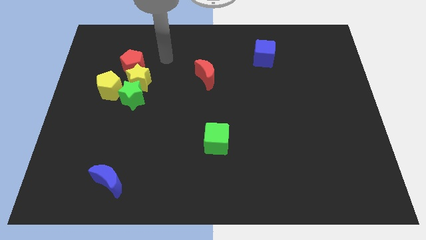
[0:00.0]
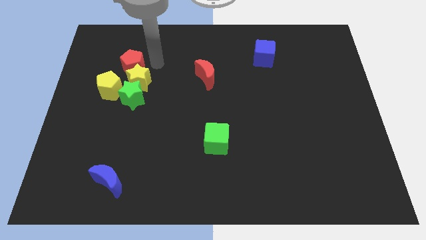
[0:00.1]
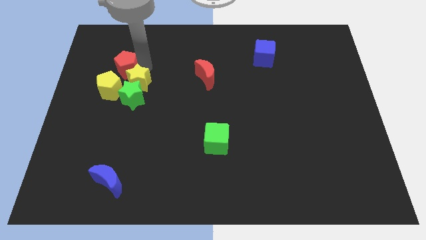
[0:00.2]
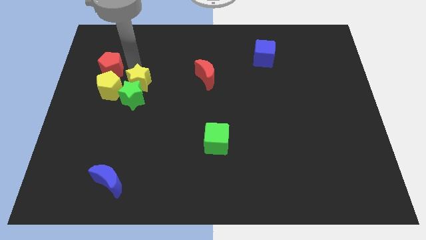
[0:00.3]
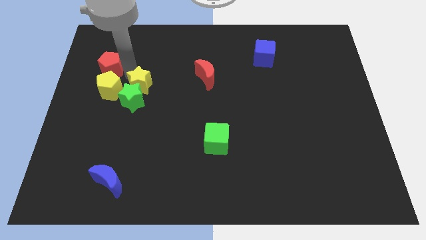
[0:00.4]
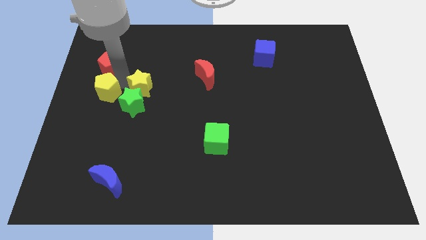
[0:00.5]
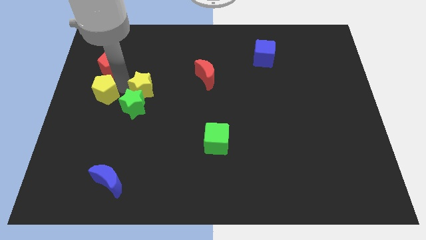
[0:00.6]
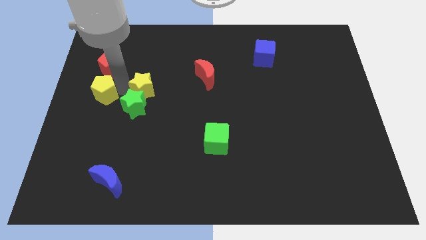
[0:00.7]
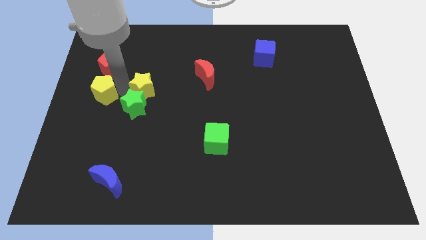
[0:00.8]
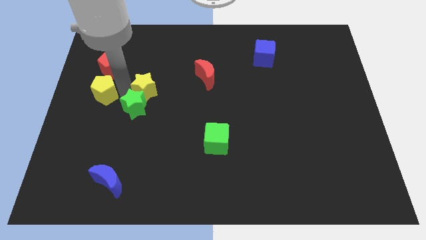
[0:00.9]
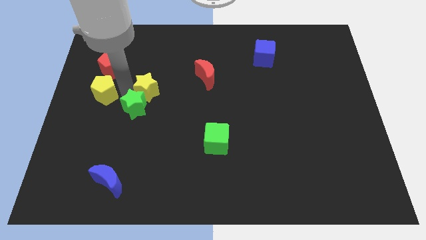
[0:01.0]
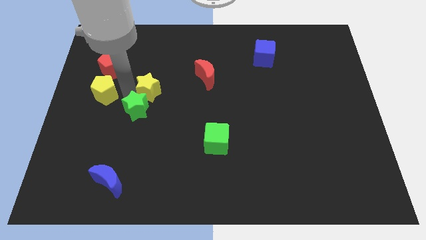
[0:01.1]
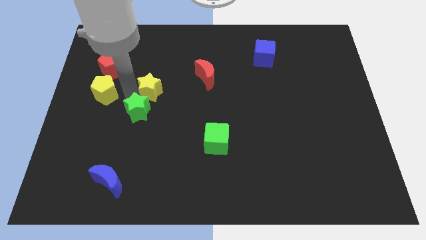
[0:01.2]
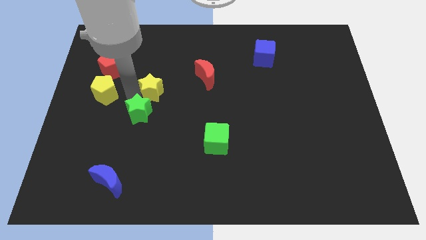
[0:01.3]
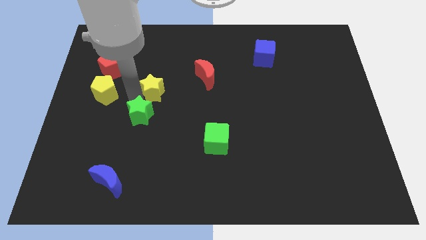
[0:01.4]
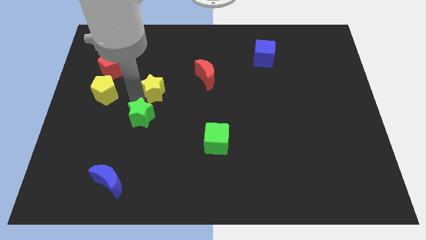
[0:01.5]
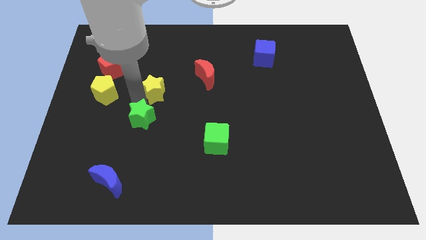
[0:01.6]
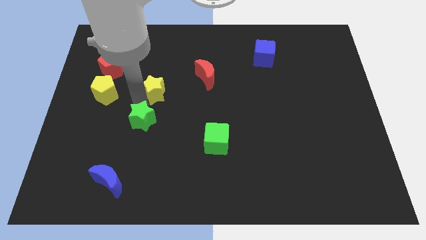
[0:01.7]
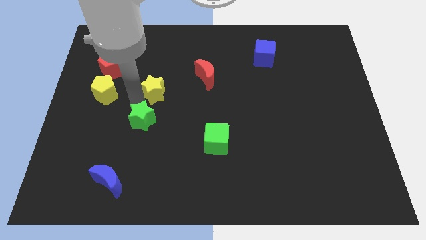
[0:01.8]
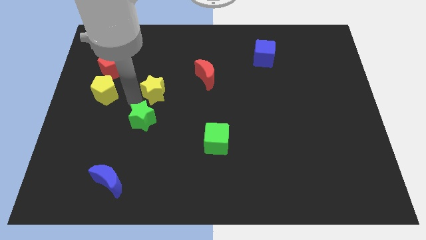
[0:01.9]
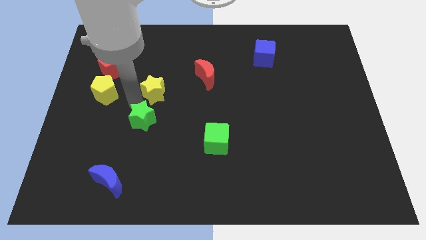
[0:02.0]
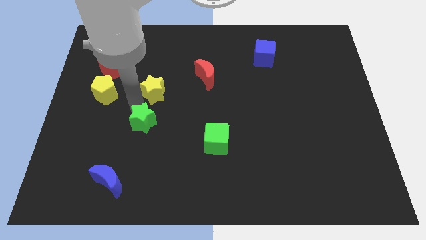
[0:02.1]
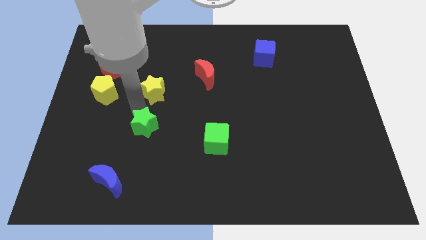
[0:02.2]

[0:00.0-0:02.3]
separate the green star from the yellow star and yellow pentagon

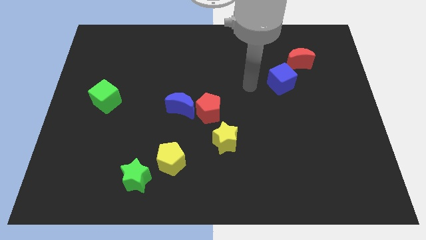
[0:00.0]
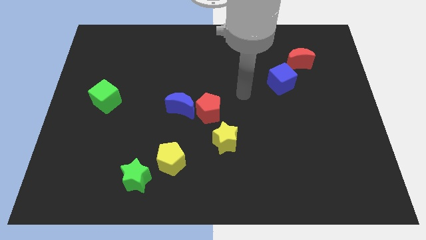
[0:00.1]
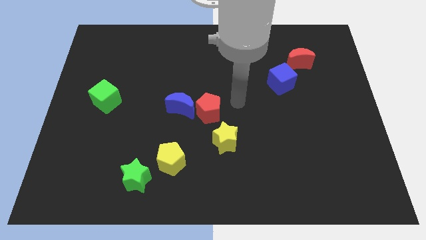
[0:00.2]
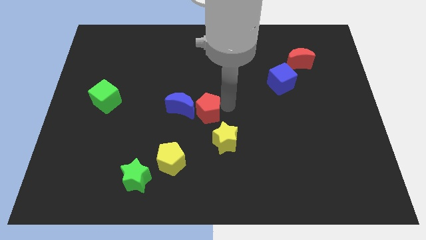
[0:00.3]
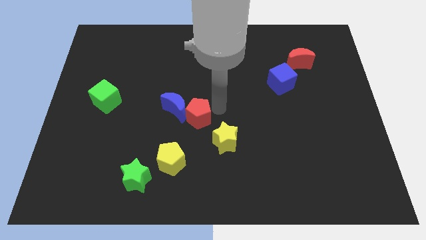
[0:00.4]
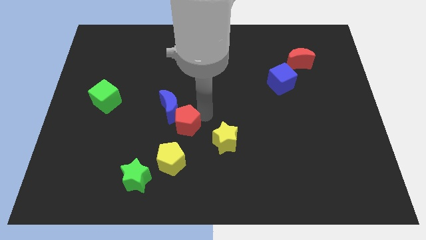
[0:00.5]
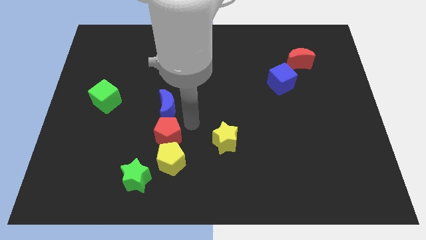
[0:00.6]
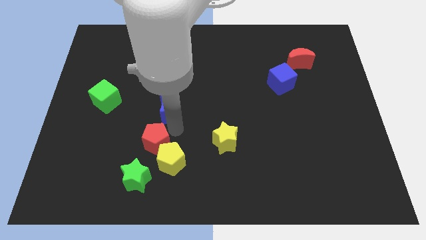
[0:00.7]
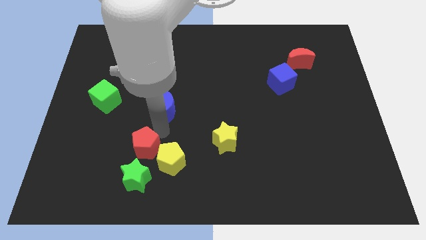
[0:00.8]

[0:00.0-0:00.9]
move the blue moon away from the red pentagon

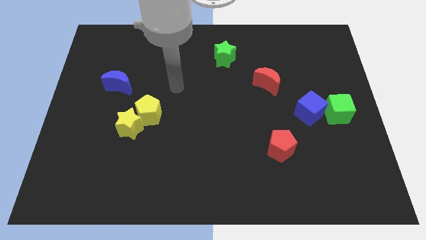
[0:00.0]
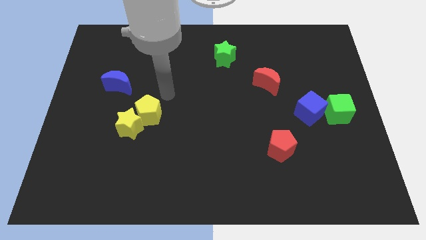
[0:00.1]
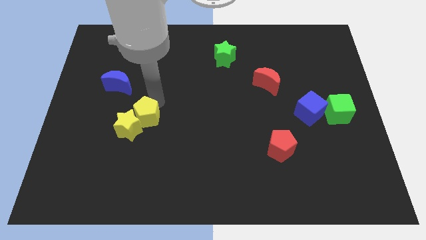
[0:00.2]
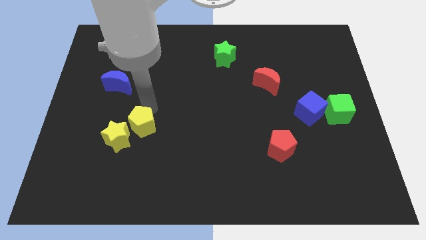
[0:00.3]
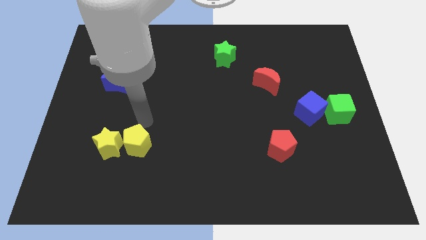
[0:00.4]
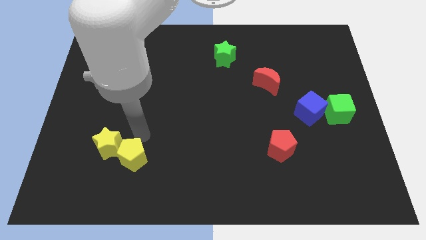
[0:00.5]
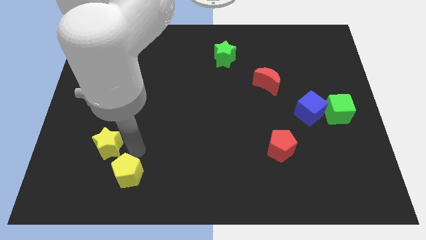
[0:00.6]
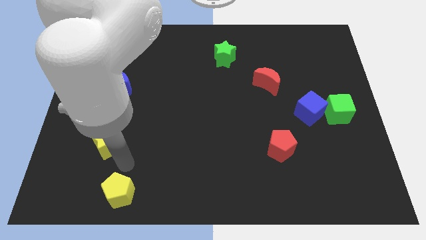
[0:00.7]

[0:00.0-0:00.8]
pull the yellow star apart from the yellow pentagon

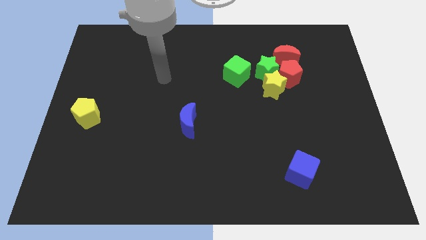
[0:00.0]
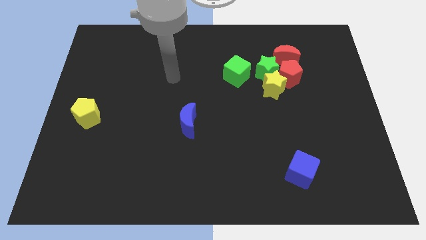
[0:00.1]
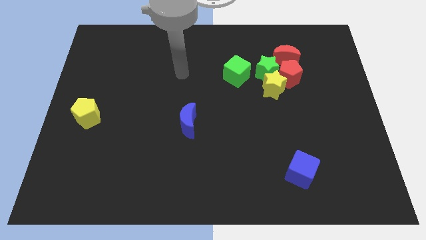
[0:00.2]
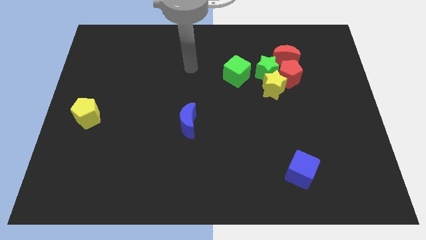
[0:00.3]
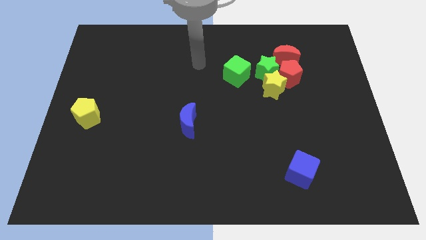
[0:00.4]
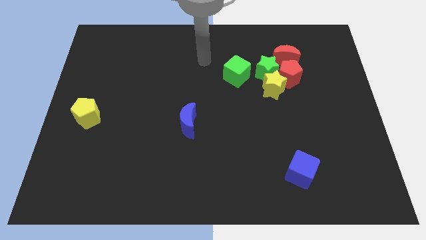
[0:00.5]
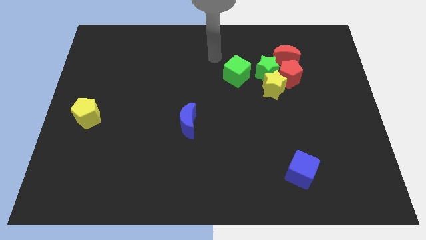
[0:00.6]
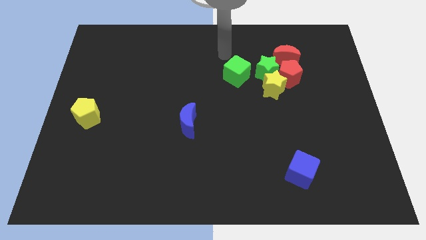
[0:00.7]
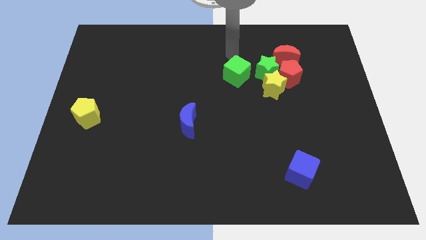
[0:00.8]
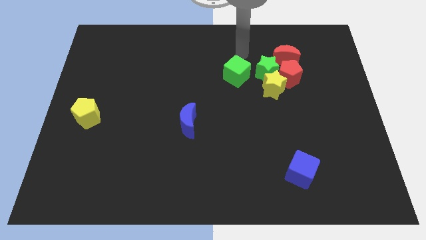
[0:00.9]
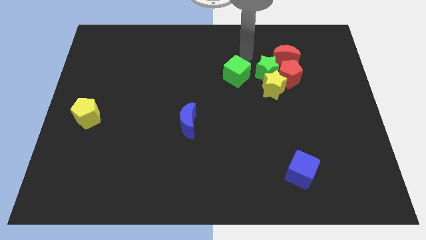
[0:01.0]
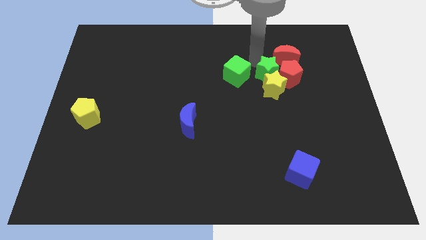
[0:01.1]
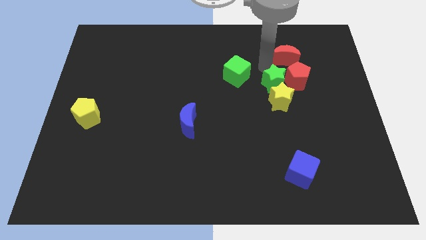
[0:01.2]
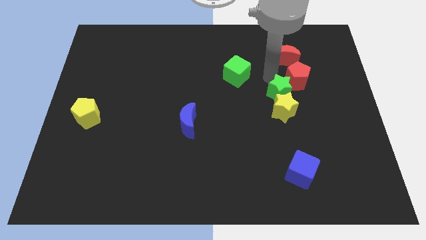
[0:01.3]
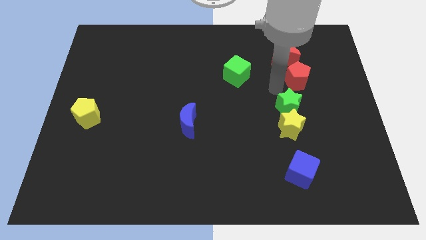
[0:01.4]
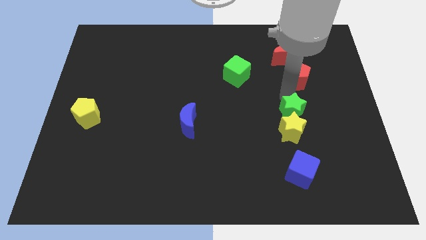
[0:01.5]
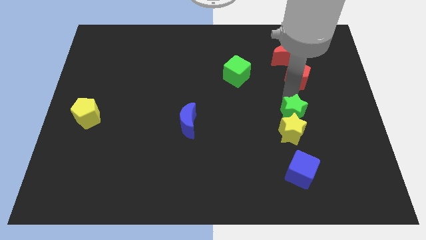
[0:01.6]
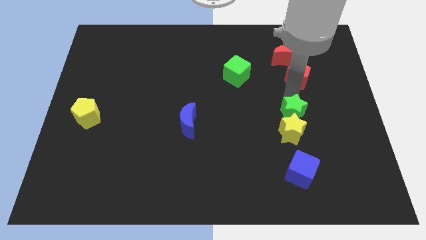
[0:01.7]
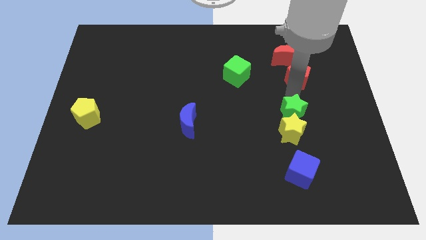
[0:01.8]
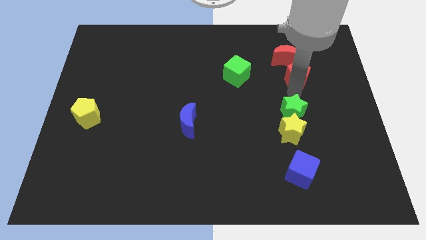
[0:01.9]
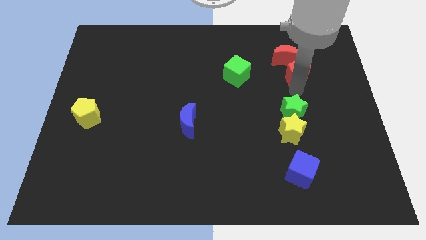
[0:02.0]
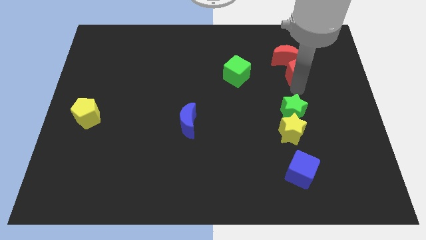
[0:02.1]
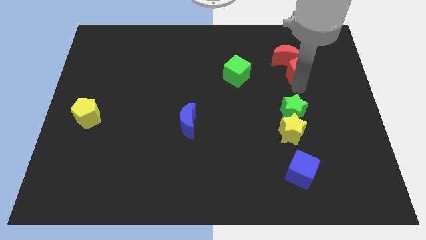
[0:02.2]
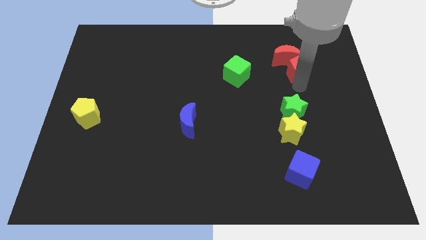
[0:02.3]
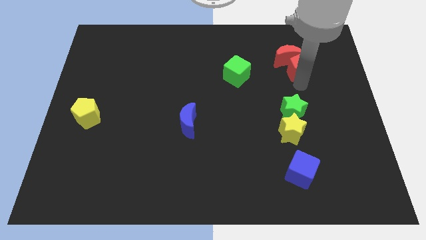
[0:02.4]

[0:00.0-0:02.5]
move the red pentagon away from the green star, yellow star, and red moon

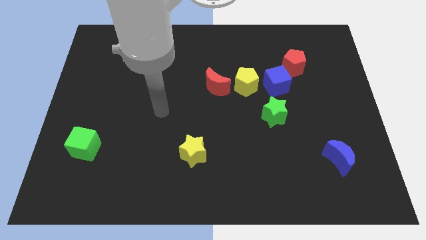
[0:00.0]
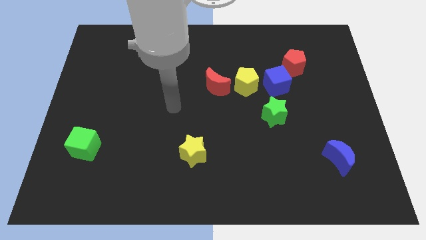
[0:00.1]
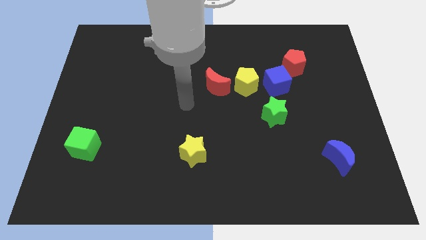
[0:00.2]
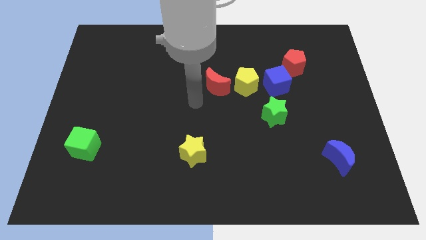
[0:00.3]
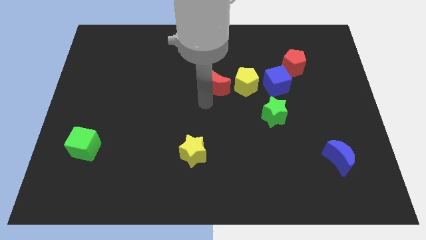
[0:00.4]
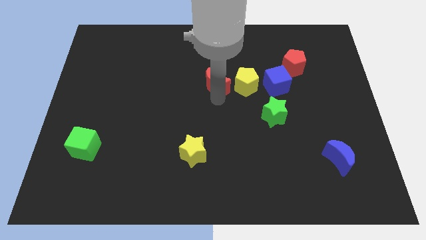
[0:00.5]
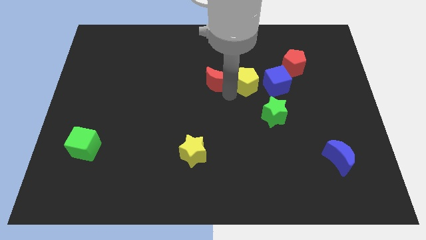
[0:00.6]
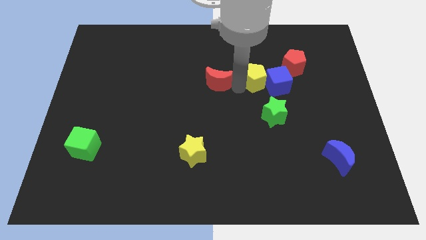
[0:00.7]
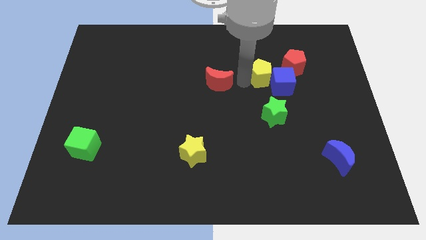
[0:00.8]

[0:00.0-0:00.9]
move the red moon away from the yellow pentagon

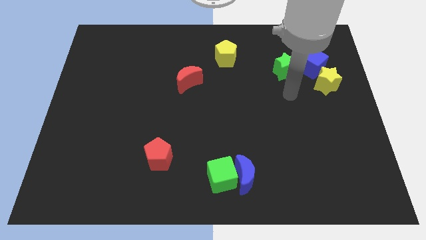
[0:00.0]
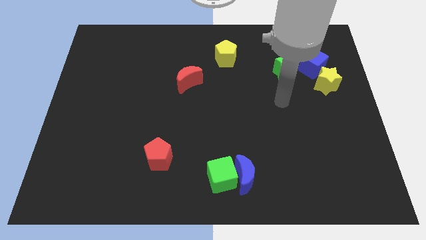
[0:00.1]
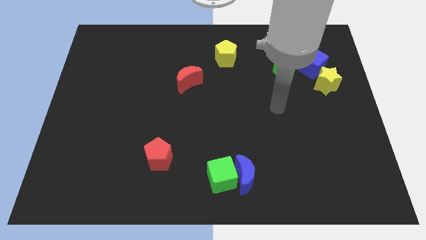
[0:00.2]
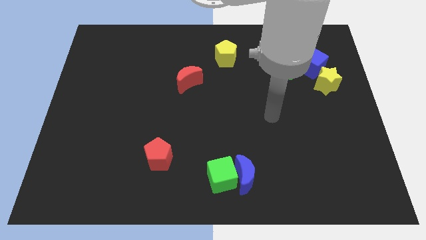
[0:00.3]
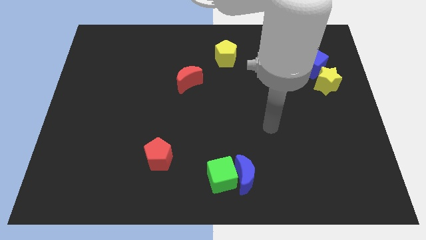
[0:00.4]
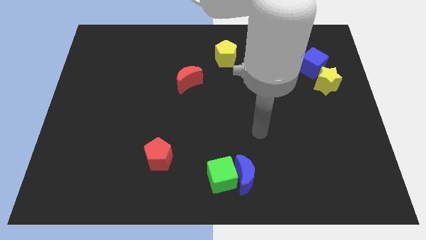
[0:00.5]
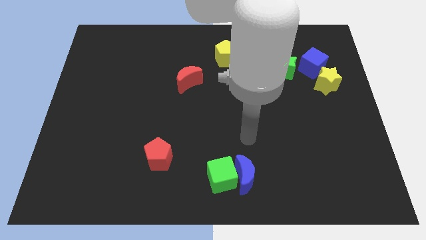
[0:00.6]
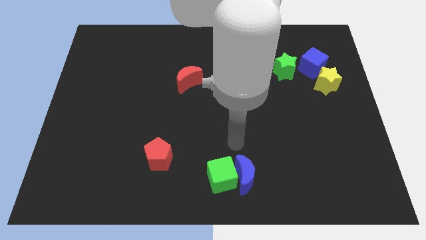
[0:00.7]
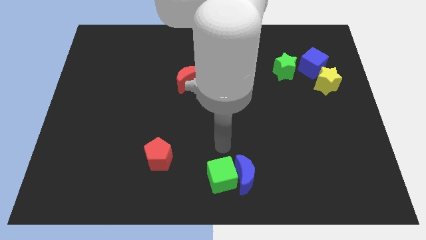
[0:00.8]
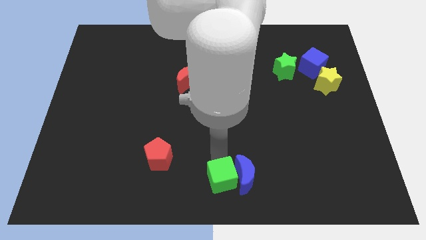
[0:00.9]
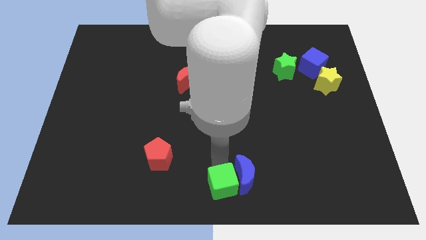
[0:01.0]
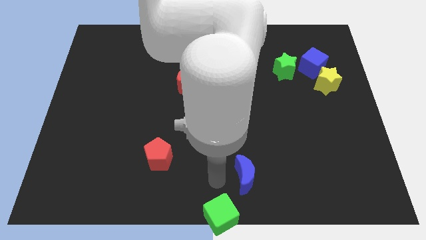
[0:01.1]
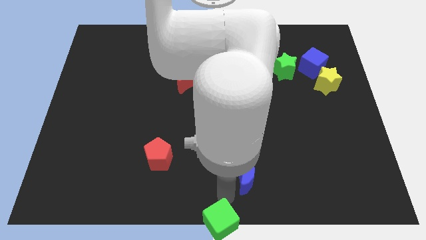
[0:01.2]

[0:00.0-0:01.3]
pull the blue moon apart from the green cube

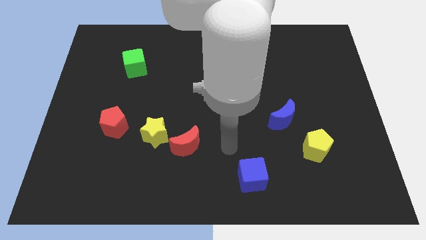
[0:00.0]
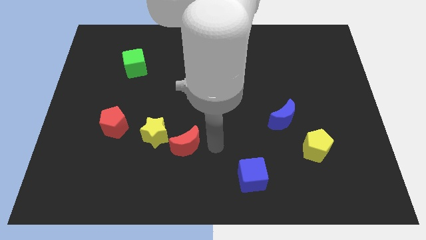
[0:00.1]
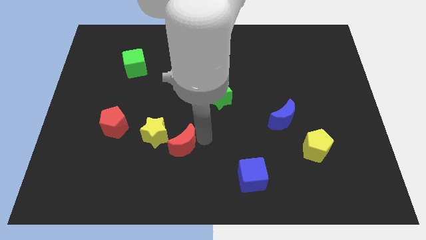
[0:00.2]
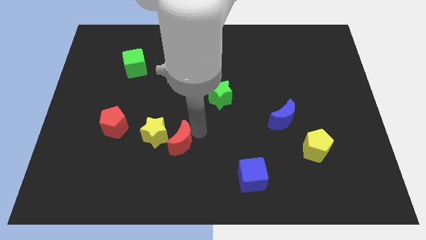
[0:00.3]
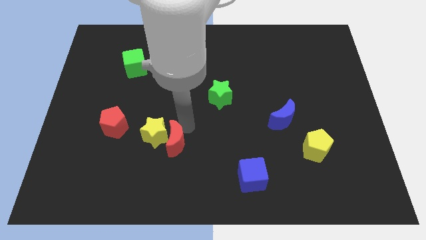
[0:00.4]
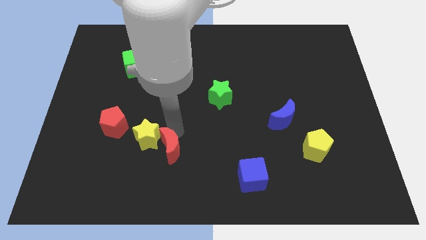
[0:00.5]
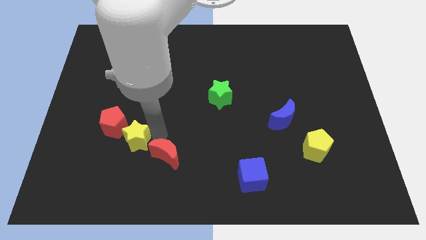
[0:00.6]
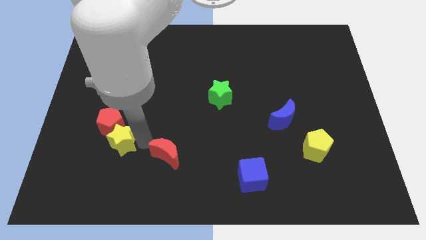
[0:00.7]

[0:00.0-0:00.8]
move the red moon away from the yellow star
